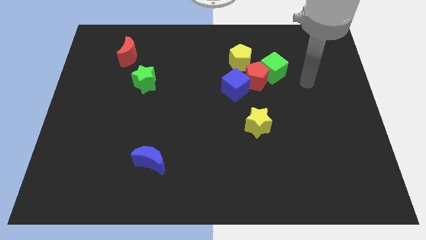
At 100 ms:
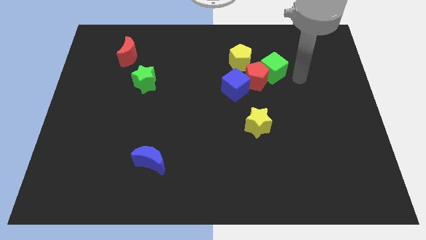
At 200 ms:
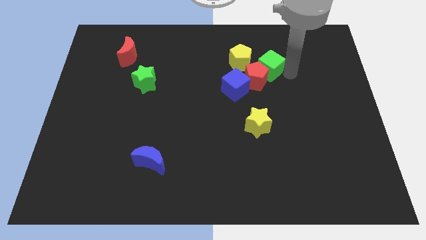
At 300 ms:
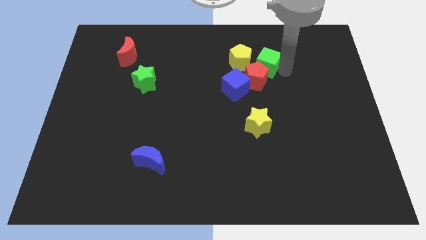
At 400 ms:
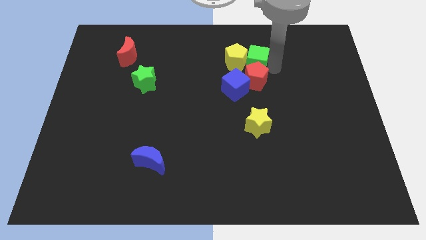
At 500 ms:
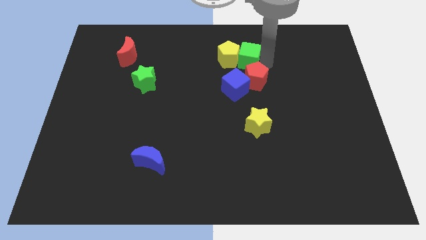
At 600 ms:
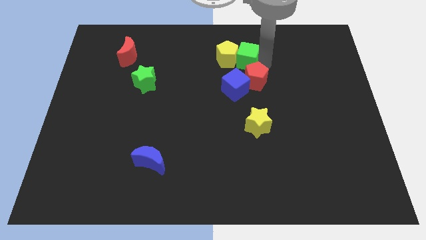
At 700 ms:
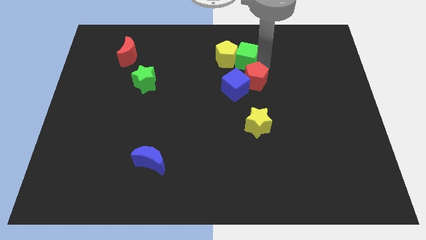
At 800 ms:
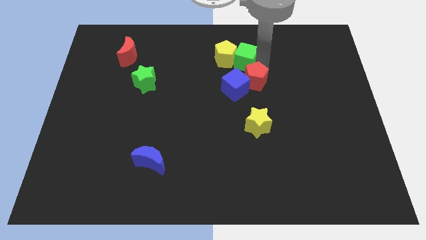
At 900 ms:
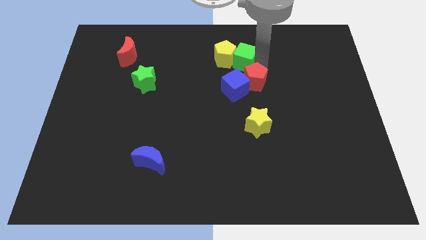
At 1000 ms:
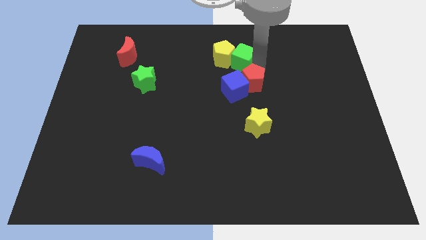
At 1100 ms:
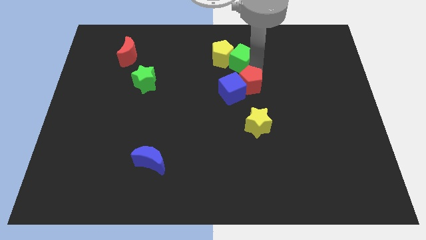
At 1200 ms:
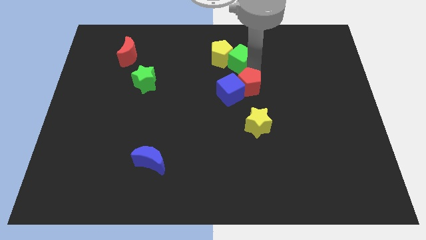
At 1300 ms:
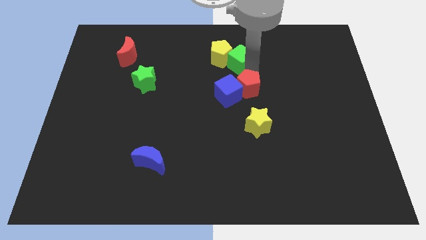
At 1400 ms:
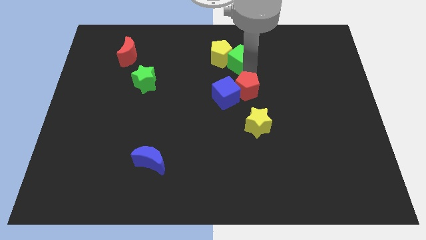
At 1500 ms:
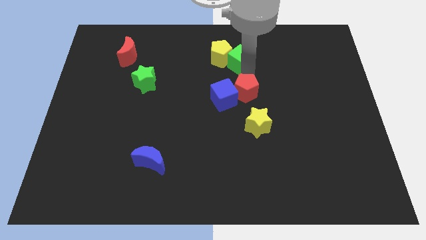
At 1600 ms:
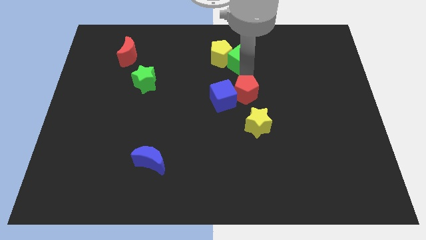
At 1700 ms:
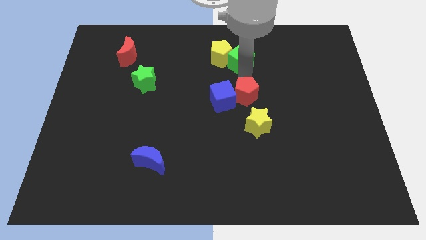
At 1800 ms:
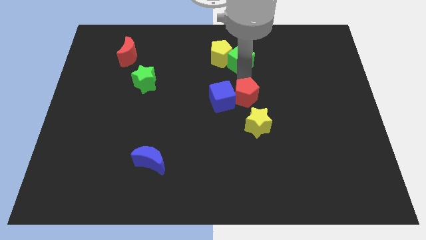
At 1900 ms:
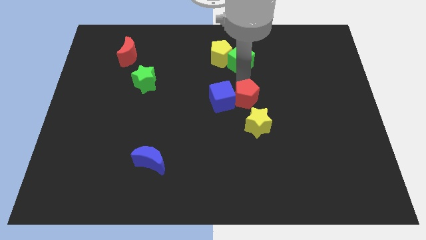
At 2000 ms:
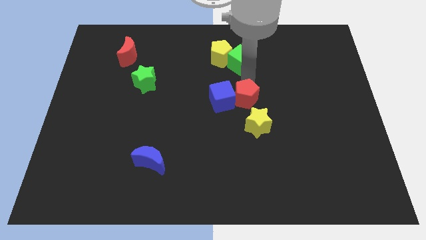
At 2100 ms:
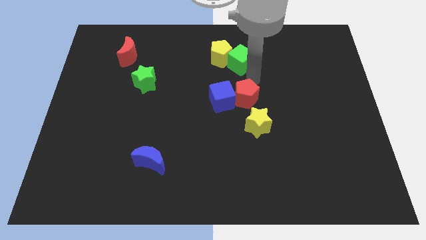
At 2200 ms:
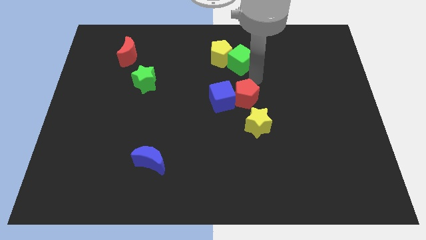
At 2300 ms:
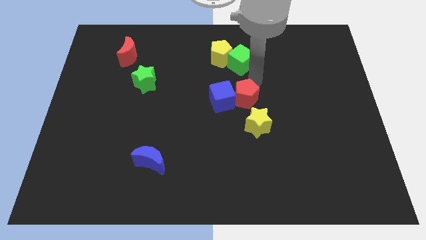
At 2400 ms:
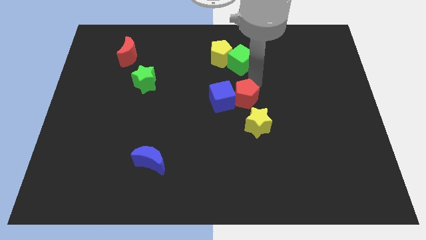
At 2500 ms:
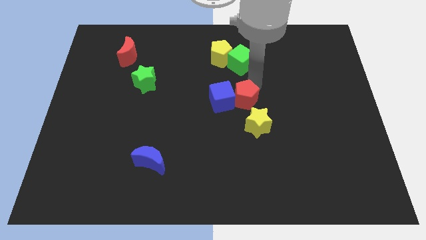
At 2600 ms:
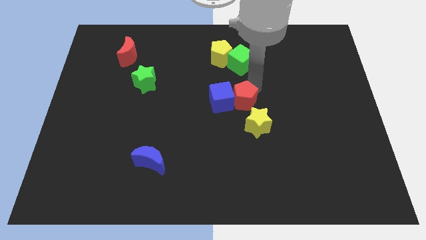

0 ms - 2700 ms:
move the red pentagon diagonally downwards and to the left a little bit

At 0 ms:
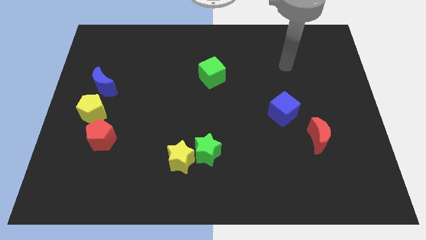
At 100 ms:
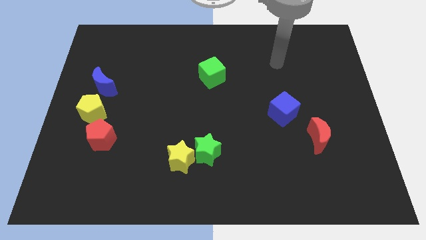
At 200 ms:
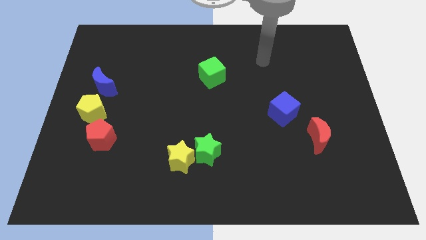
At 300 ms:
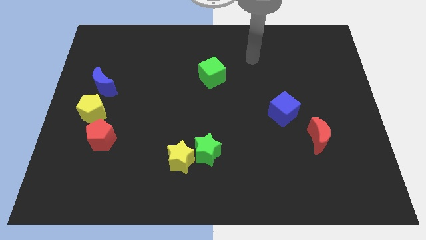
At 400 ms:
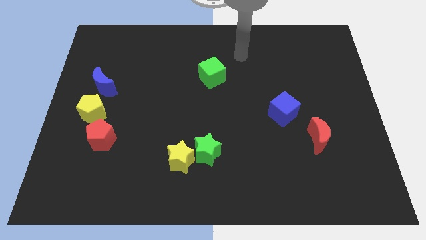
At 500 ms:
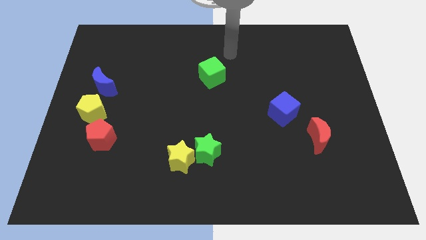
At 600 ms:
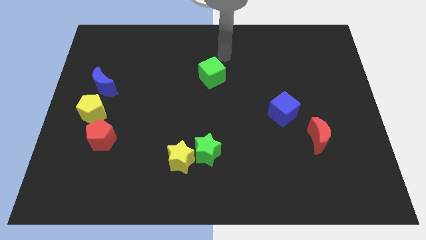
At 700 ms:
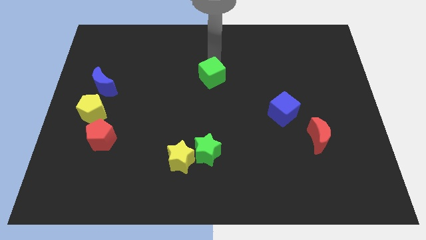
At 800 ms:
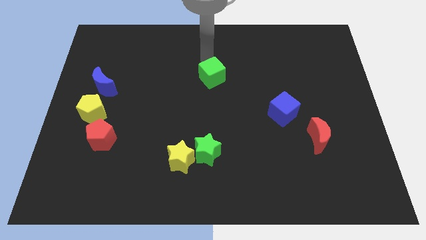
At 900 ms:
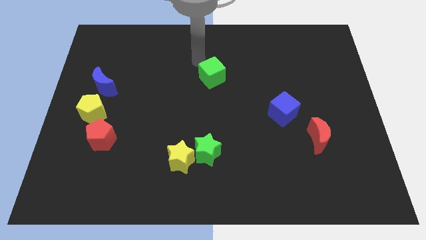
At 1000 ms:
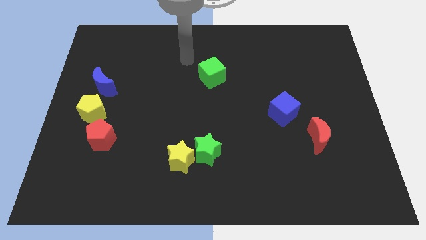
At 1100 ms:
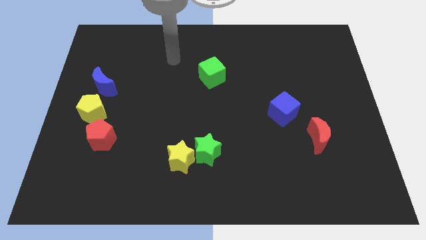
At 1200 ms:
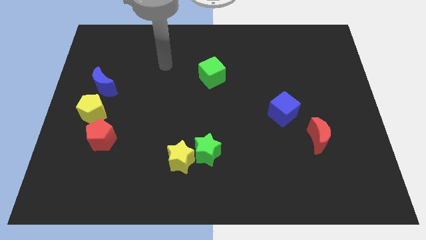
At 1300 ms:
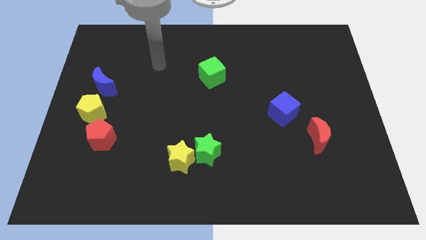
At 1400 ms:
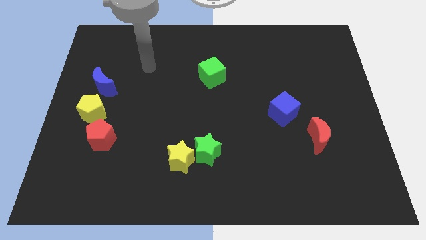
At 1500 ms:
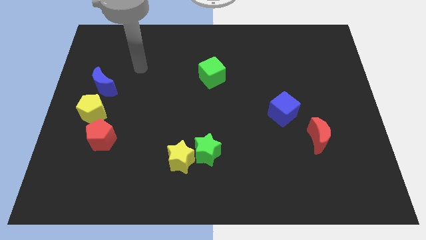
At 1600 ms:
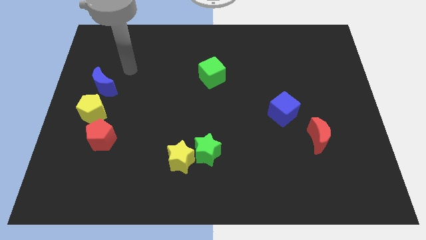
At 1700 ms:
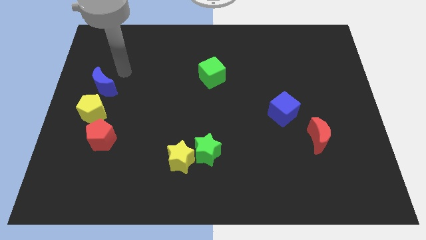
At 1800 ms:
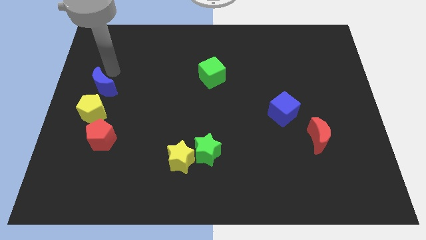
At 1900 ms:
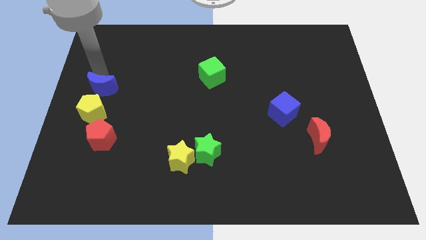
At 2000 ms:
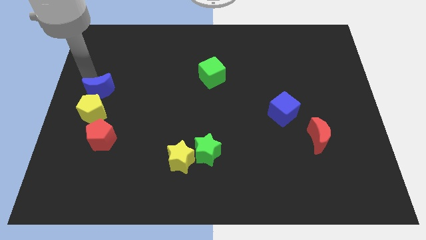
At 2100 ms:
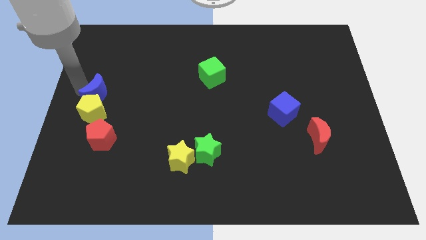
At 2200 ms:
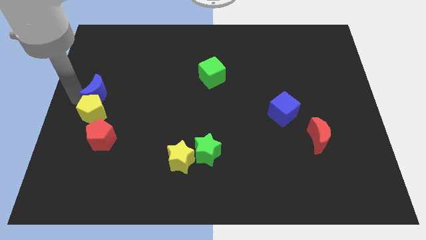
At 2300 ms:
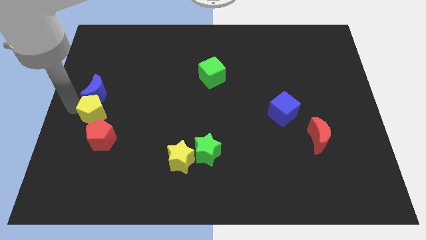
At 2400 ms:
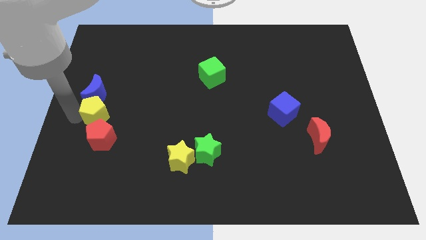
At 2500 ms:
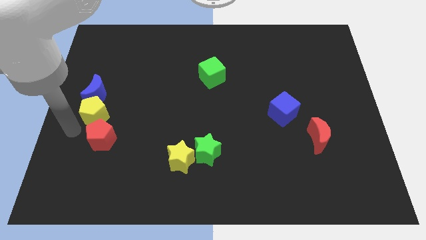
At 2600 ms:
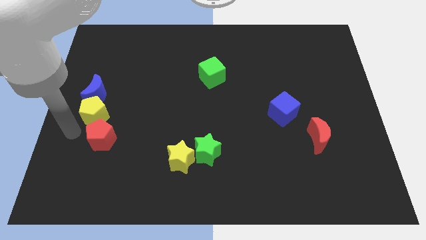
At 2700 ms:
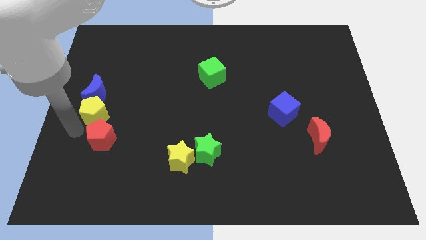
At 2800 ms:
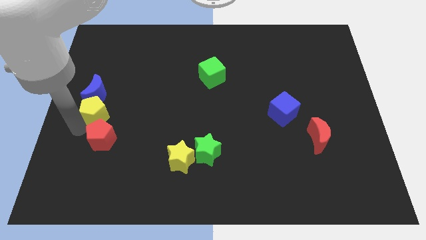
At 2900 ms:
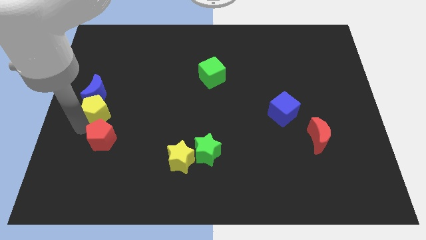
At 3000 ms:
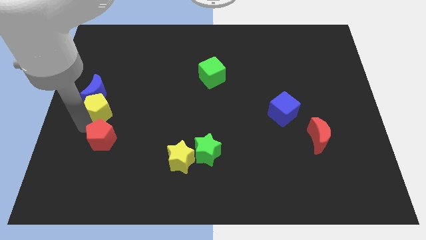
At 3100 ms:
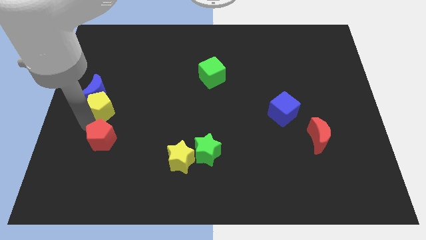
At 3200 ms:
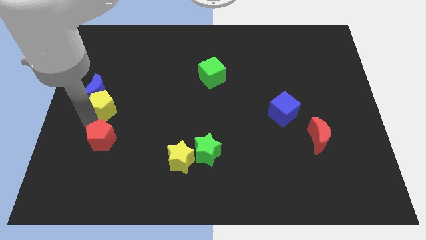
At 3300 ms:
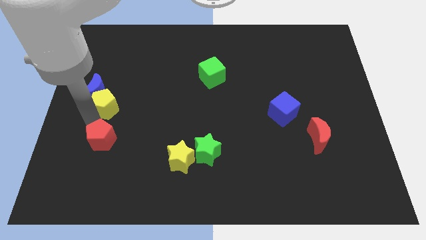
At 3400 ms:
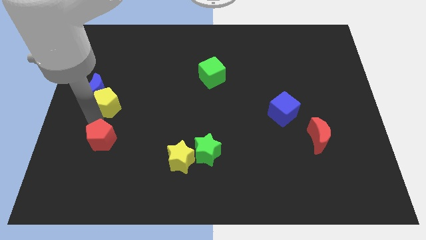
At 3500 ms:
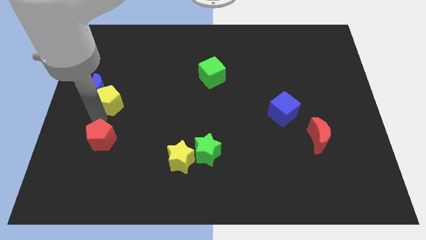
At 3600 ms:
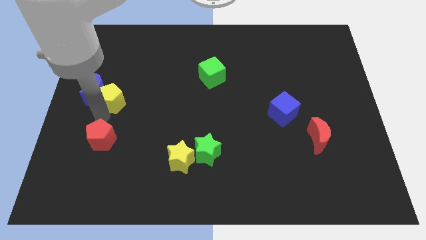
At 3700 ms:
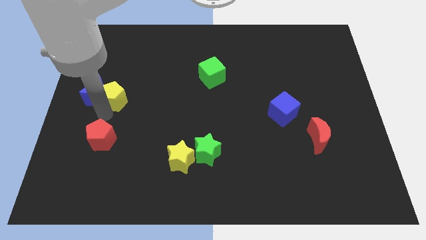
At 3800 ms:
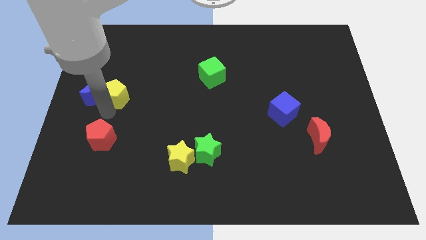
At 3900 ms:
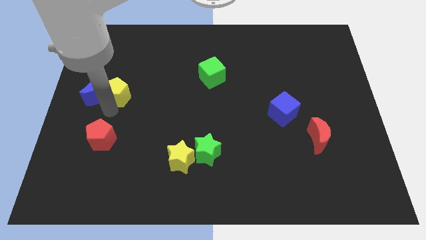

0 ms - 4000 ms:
slide the yellow pentagon up and to the right a bit

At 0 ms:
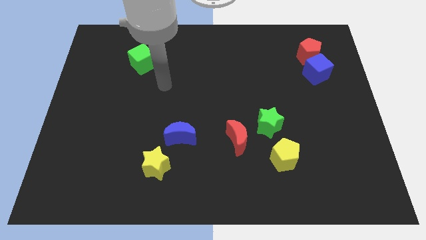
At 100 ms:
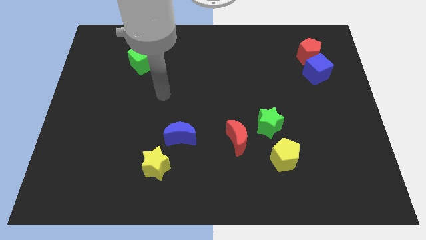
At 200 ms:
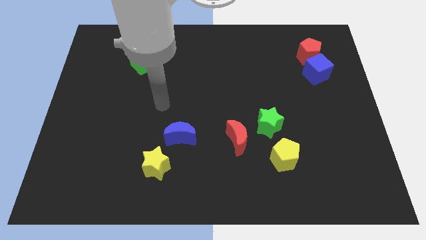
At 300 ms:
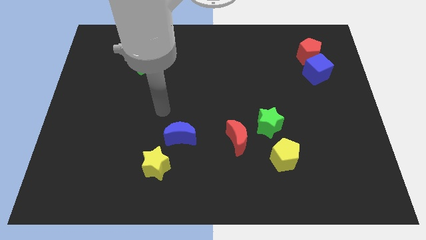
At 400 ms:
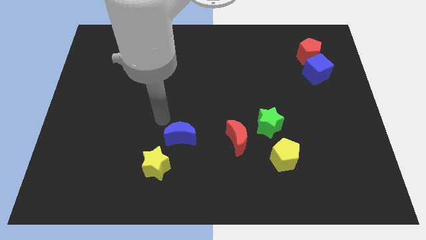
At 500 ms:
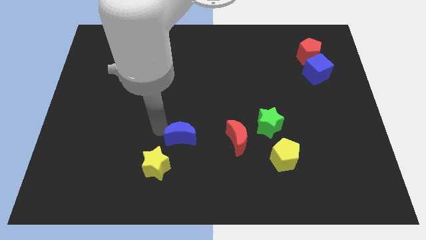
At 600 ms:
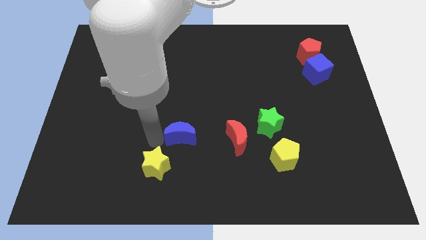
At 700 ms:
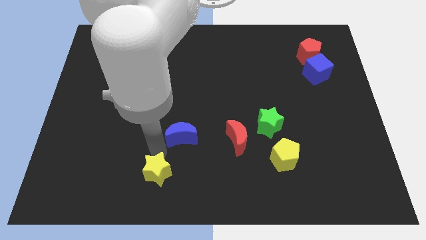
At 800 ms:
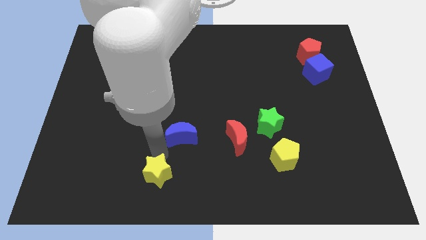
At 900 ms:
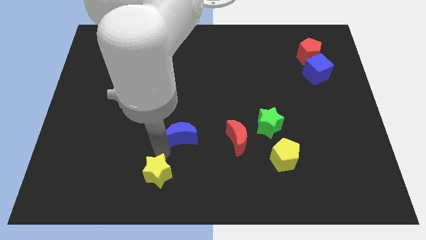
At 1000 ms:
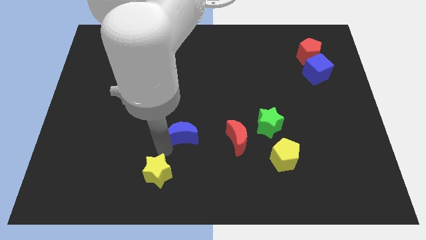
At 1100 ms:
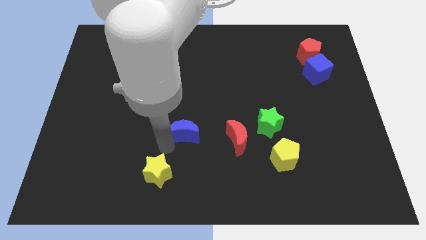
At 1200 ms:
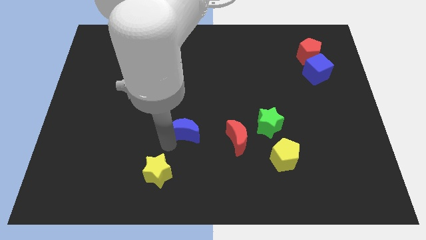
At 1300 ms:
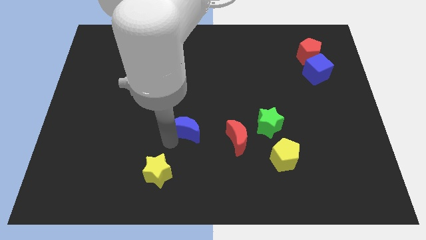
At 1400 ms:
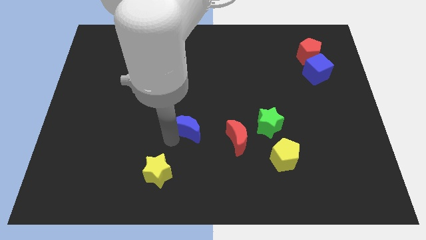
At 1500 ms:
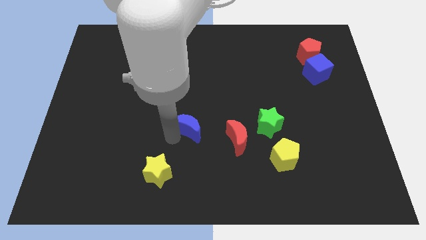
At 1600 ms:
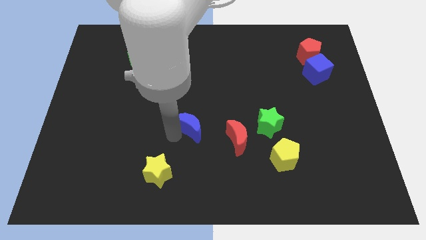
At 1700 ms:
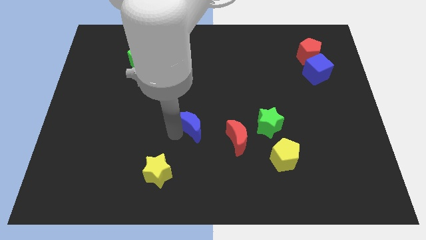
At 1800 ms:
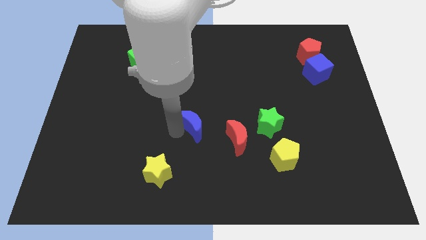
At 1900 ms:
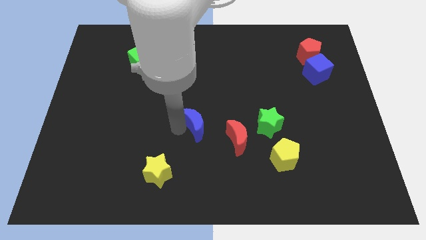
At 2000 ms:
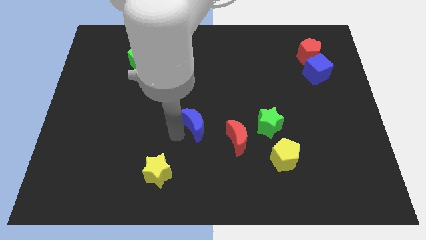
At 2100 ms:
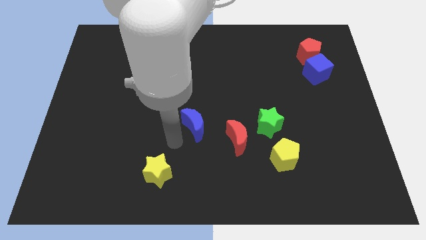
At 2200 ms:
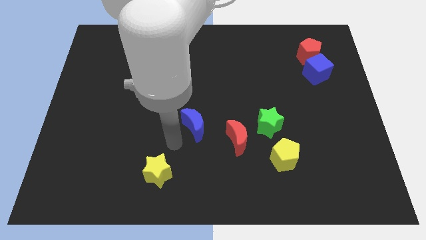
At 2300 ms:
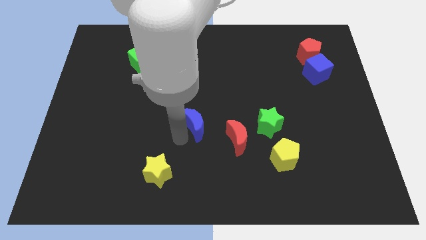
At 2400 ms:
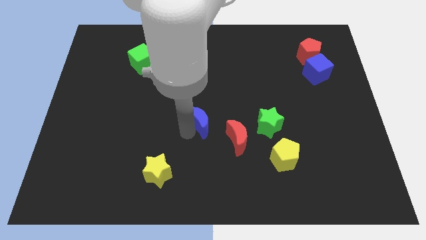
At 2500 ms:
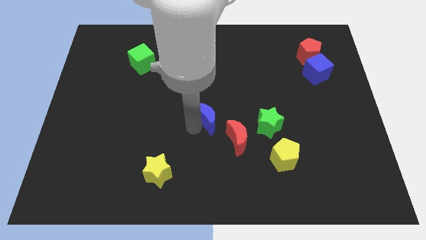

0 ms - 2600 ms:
slightly move the blue moon up and then right
